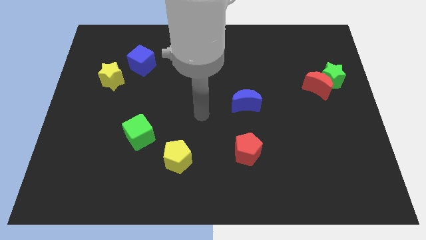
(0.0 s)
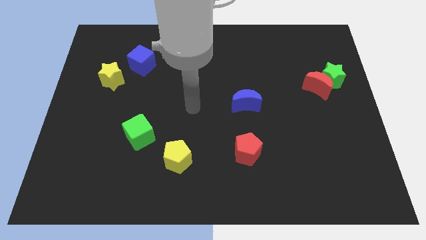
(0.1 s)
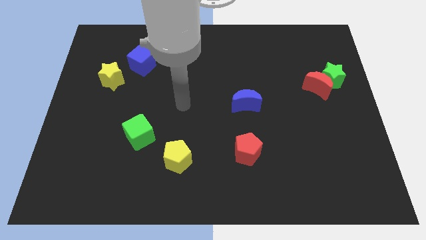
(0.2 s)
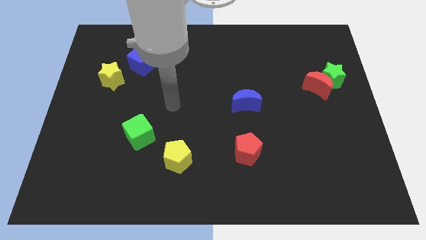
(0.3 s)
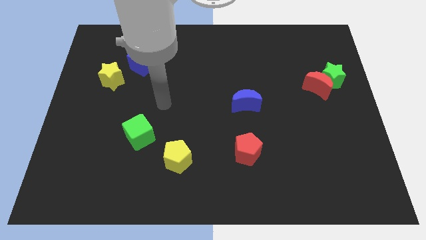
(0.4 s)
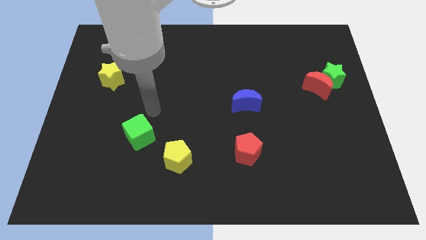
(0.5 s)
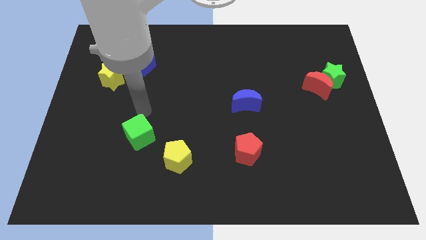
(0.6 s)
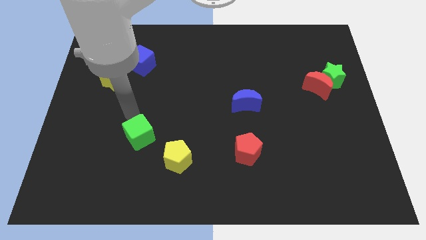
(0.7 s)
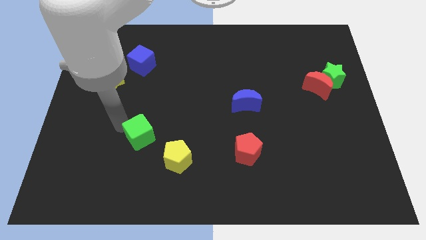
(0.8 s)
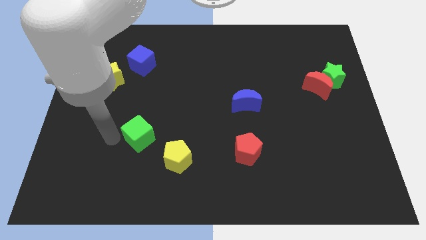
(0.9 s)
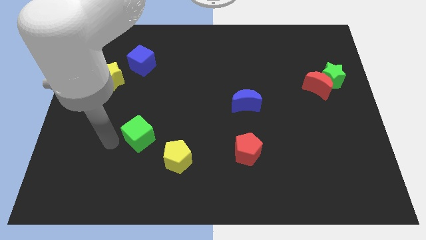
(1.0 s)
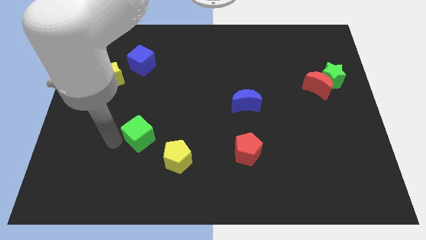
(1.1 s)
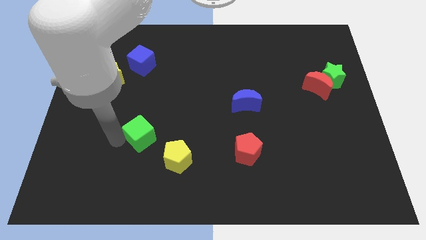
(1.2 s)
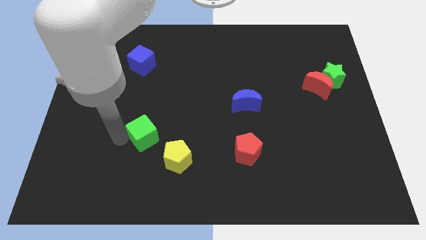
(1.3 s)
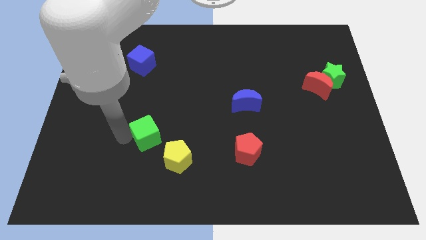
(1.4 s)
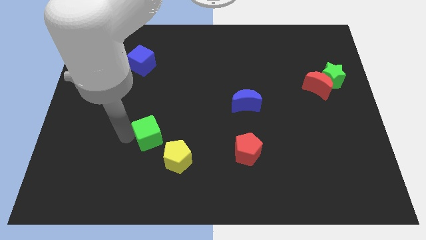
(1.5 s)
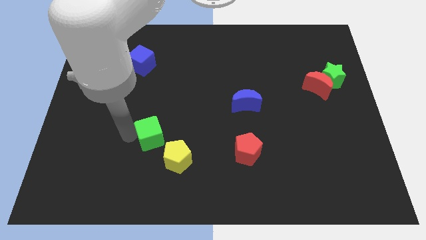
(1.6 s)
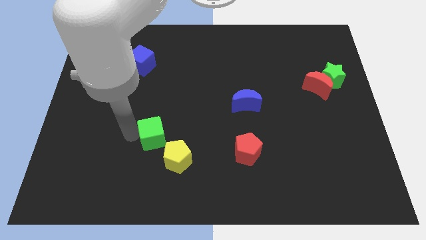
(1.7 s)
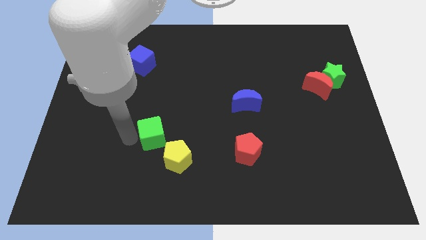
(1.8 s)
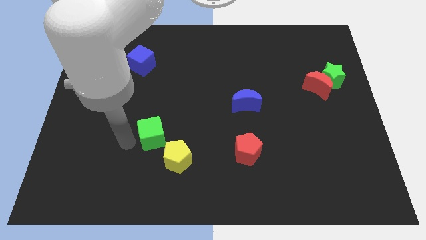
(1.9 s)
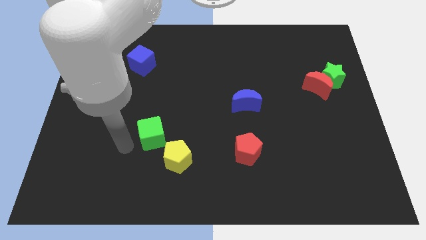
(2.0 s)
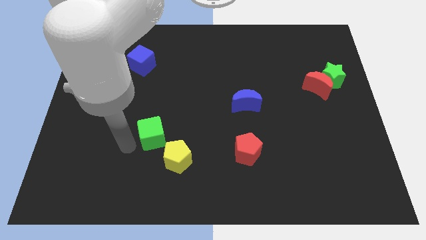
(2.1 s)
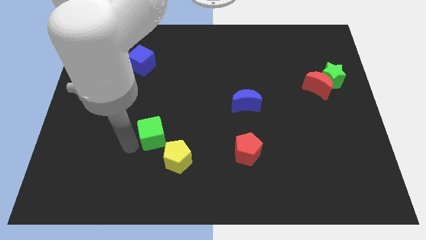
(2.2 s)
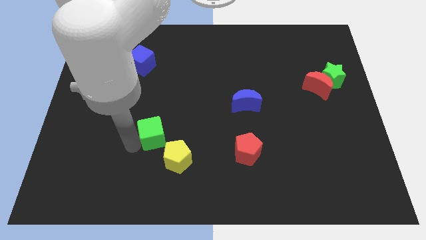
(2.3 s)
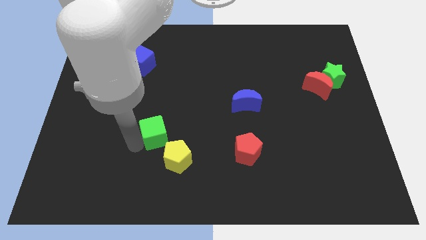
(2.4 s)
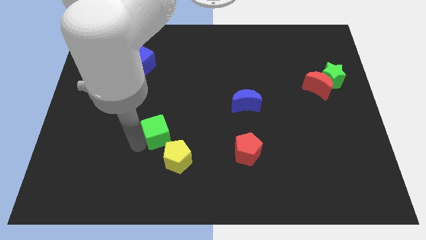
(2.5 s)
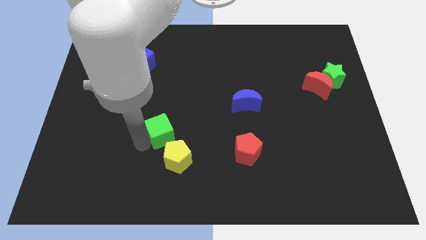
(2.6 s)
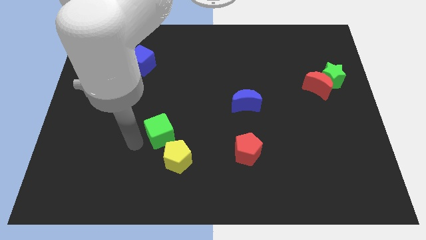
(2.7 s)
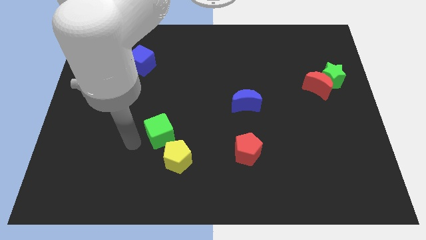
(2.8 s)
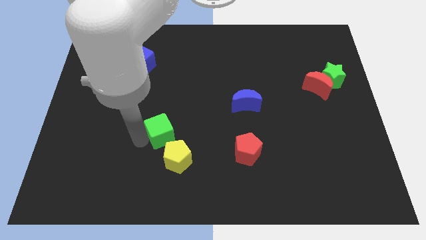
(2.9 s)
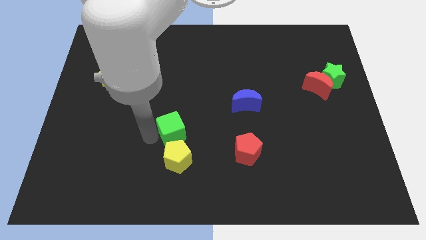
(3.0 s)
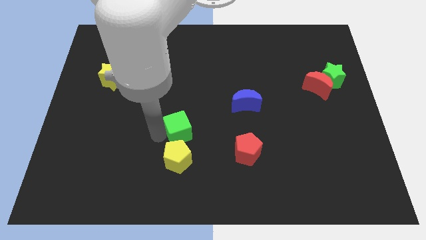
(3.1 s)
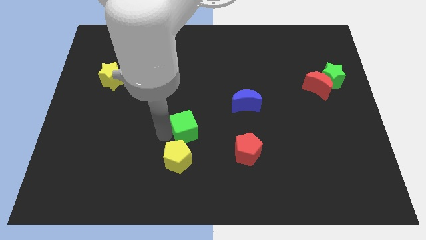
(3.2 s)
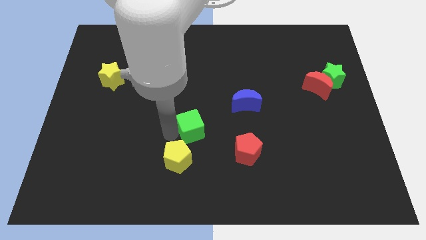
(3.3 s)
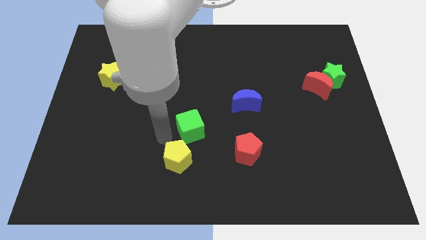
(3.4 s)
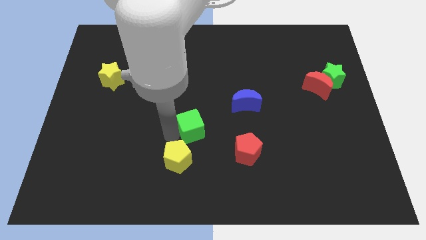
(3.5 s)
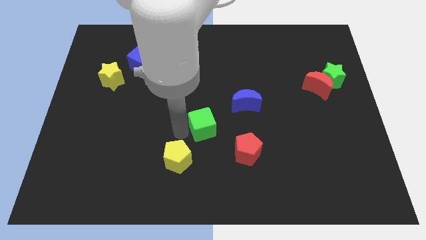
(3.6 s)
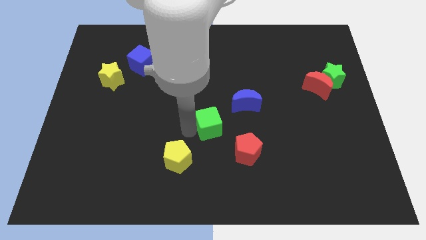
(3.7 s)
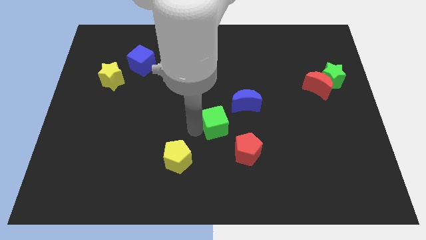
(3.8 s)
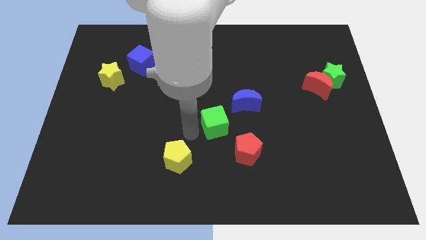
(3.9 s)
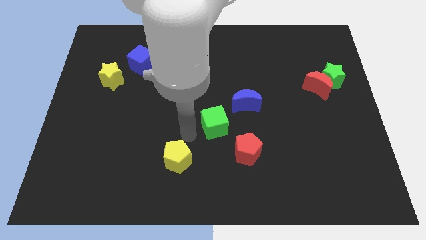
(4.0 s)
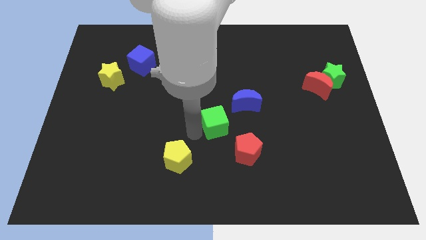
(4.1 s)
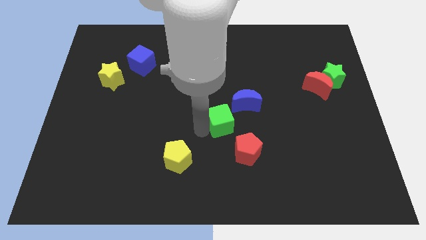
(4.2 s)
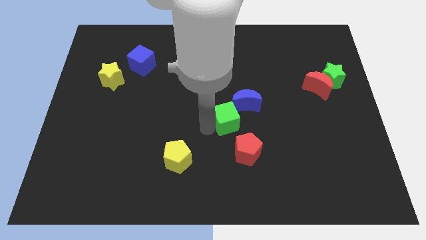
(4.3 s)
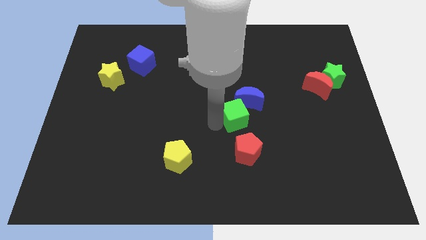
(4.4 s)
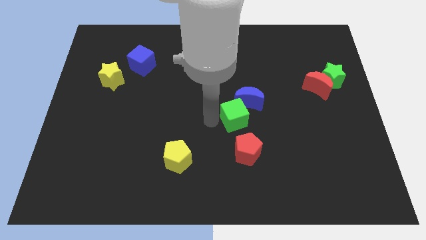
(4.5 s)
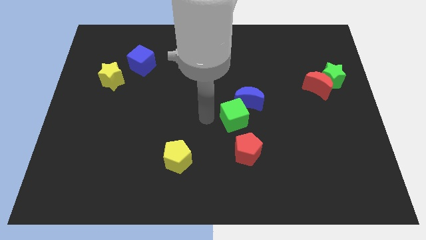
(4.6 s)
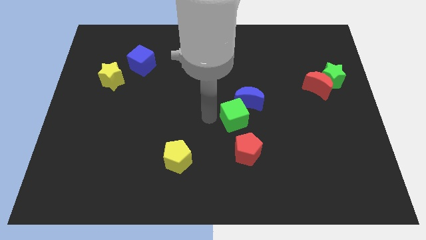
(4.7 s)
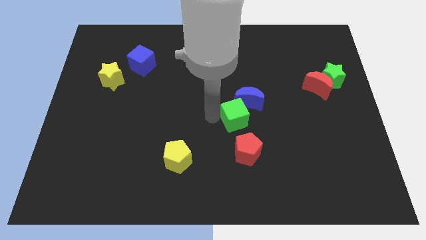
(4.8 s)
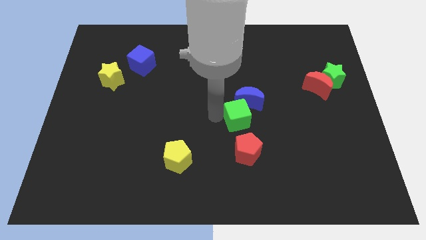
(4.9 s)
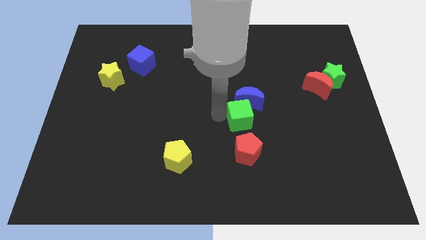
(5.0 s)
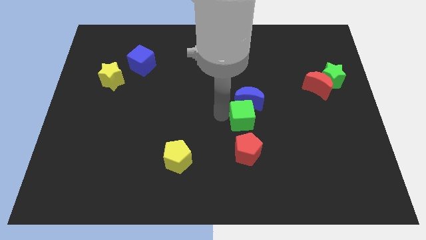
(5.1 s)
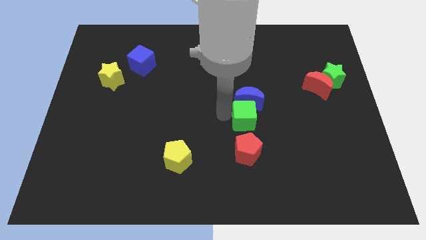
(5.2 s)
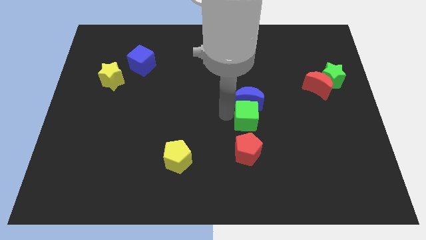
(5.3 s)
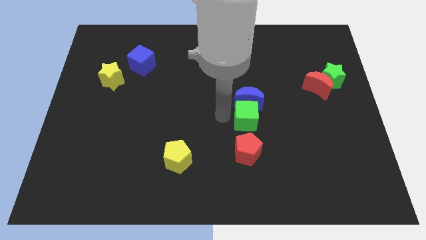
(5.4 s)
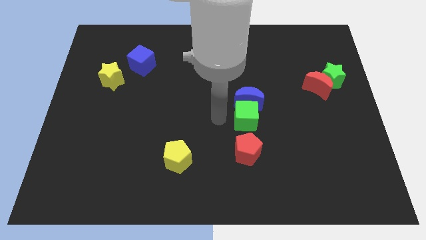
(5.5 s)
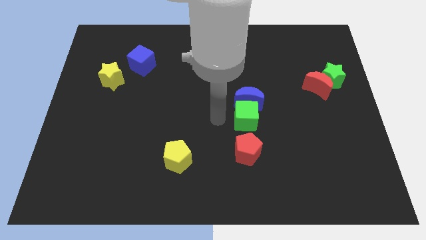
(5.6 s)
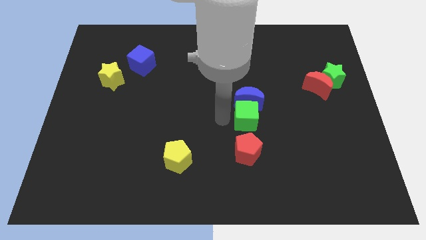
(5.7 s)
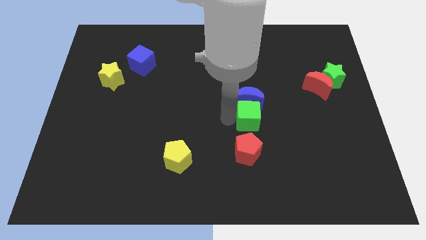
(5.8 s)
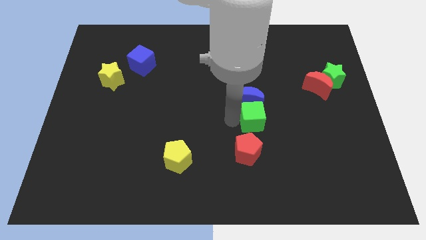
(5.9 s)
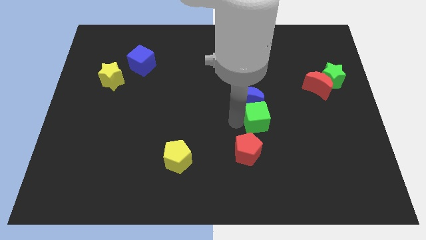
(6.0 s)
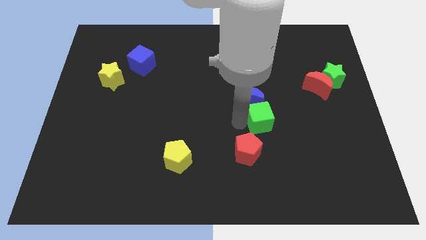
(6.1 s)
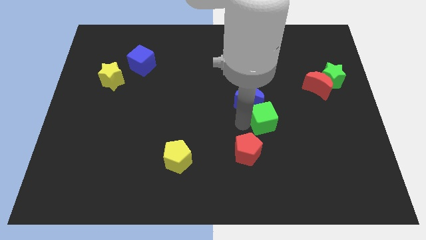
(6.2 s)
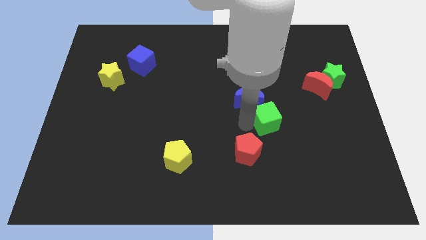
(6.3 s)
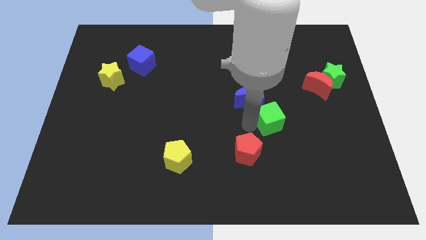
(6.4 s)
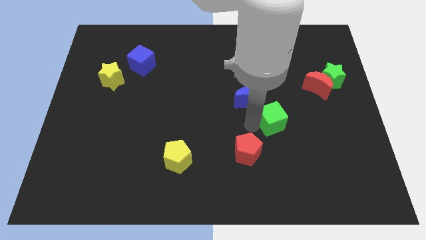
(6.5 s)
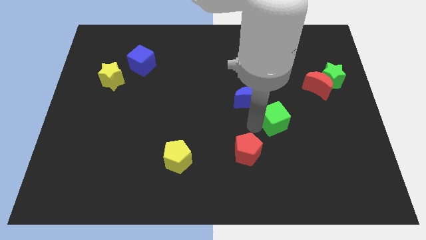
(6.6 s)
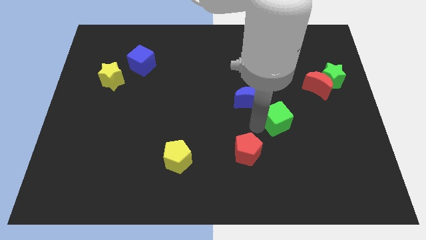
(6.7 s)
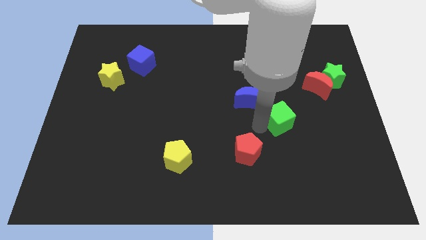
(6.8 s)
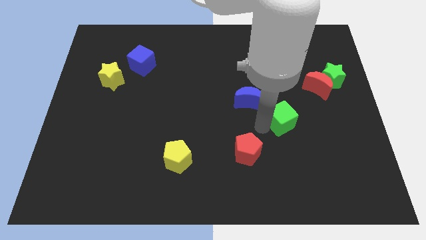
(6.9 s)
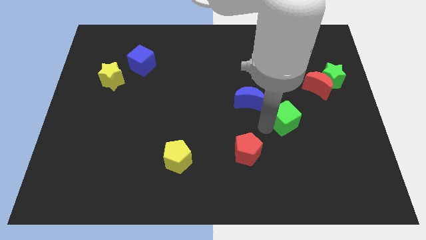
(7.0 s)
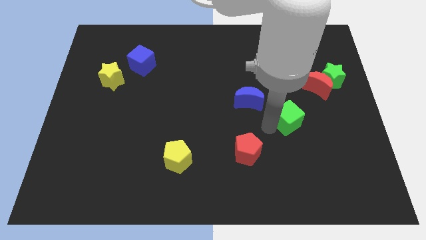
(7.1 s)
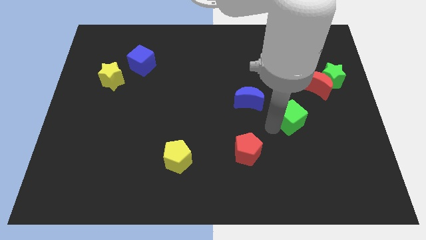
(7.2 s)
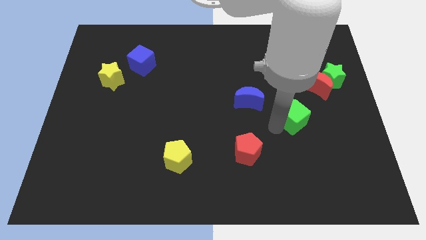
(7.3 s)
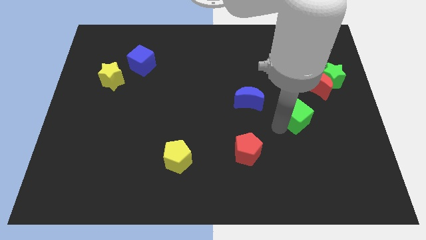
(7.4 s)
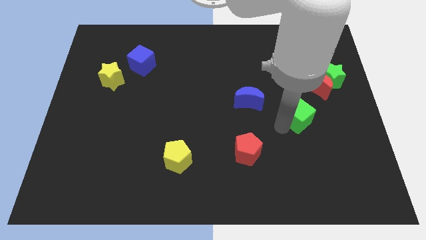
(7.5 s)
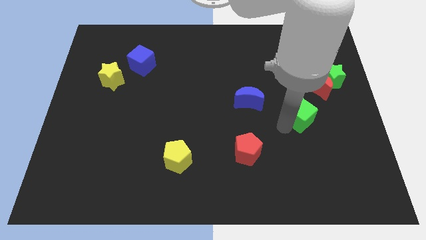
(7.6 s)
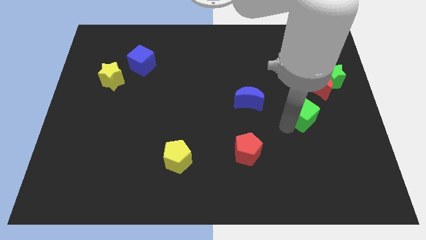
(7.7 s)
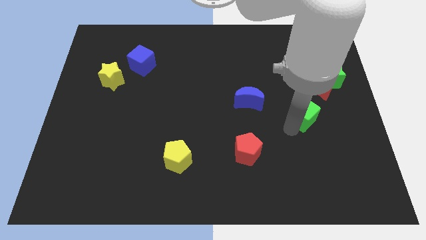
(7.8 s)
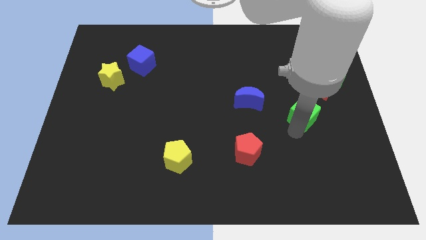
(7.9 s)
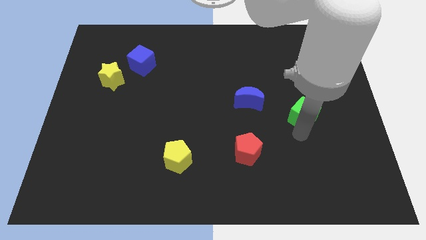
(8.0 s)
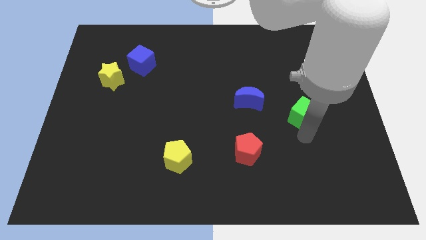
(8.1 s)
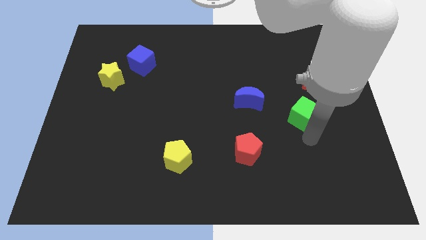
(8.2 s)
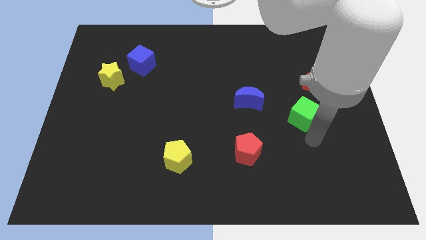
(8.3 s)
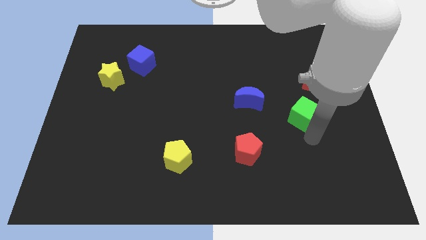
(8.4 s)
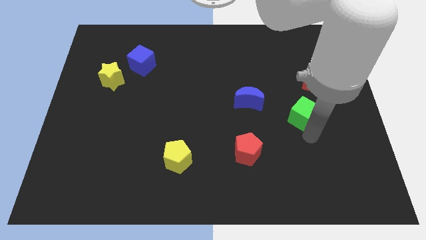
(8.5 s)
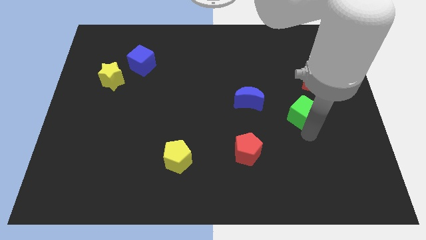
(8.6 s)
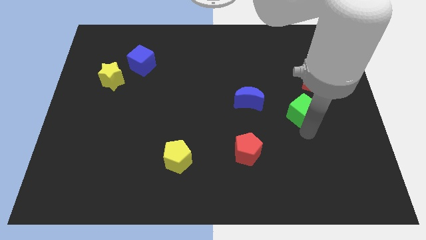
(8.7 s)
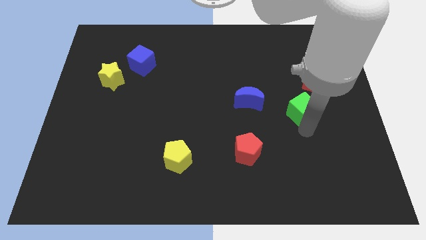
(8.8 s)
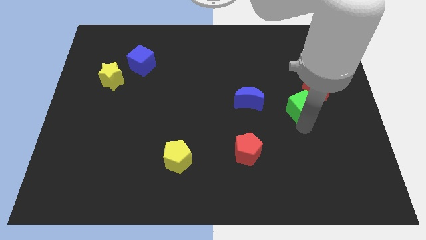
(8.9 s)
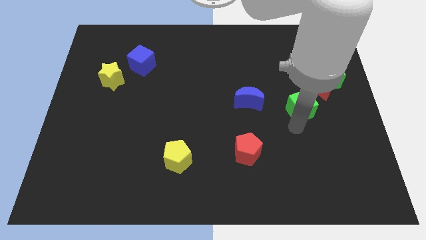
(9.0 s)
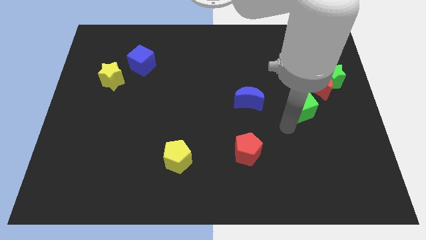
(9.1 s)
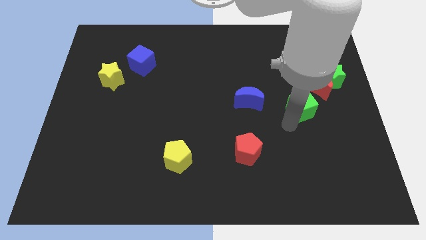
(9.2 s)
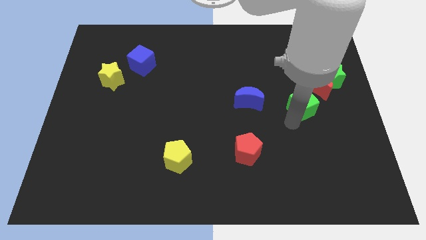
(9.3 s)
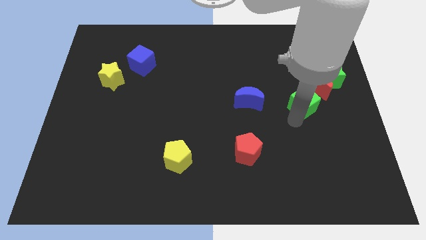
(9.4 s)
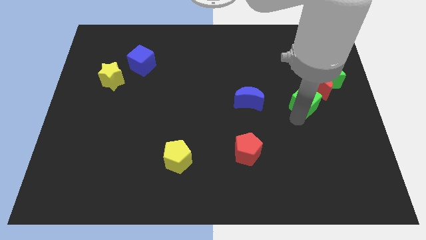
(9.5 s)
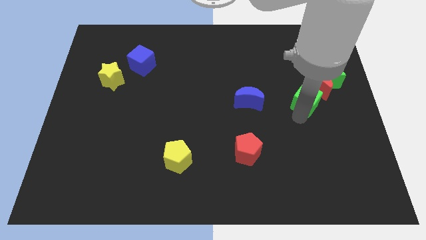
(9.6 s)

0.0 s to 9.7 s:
push the green cube close to the red moon
